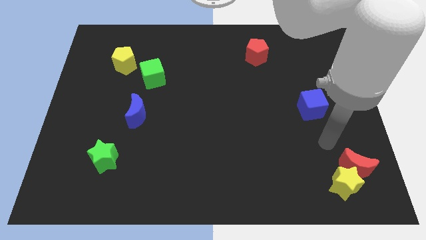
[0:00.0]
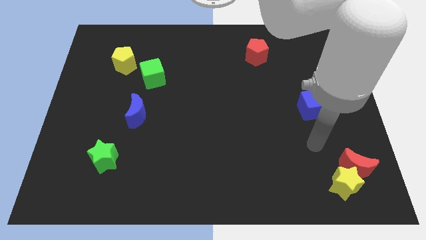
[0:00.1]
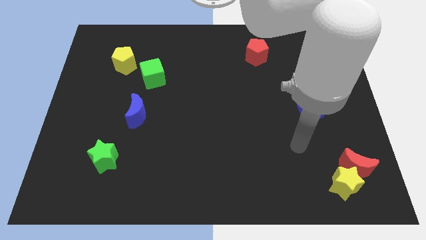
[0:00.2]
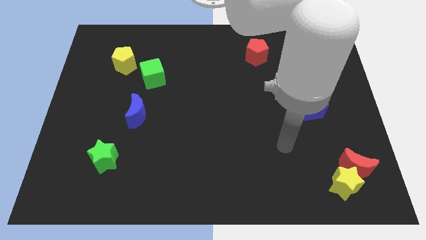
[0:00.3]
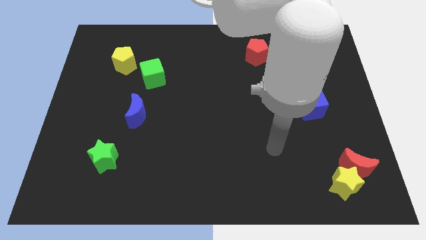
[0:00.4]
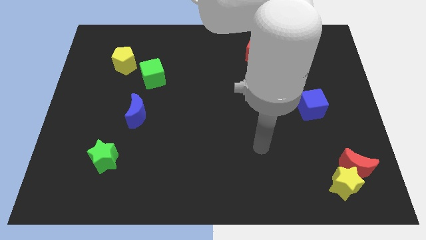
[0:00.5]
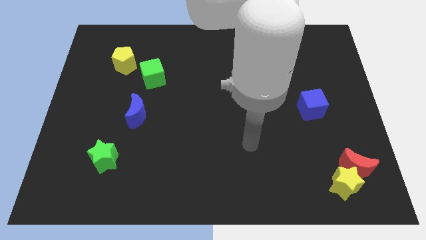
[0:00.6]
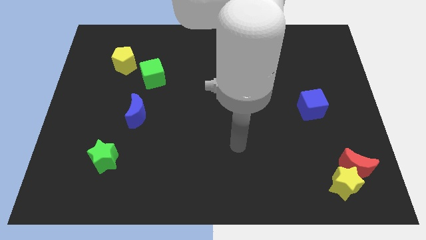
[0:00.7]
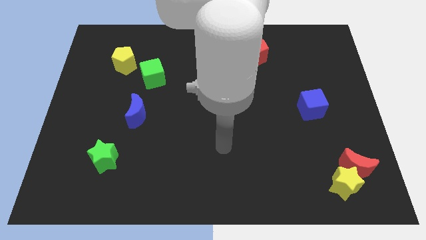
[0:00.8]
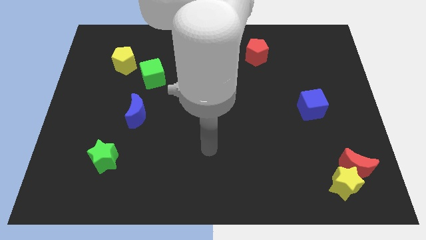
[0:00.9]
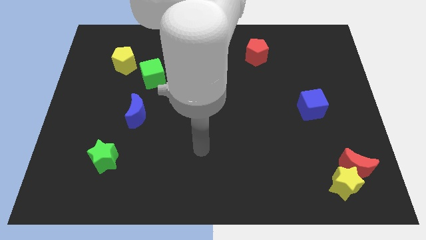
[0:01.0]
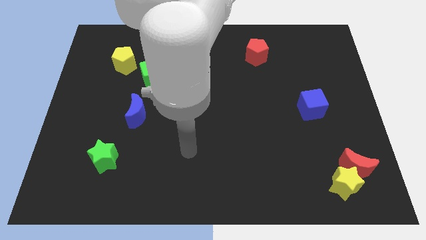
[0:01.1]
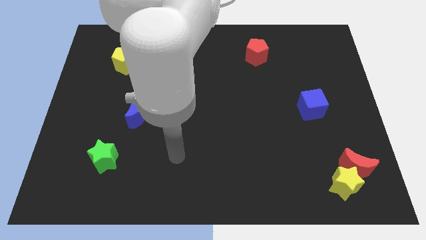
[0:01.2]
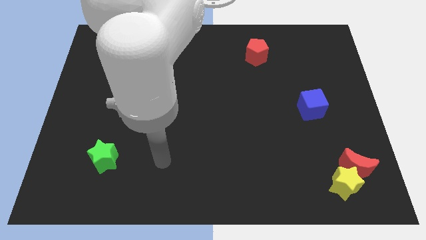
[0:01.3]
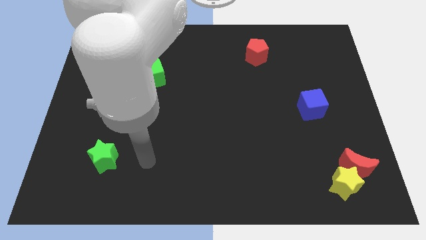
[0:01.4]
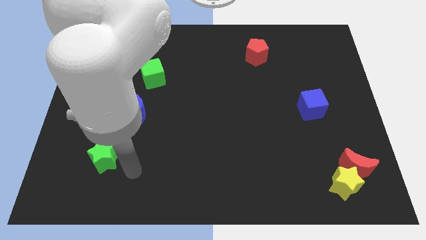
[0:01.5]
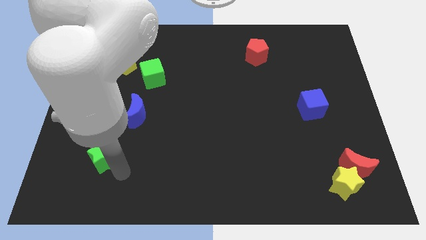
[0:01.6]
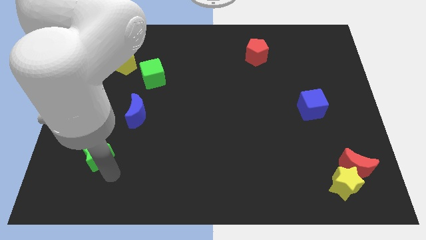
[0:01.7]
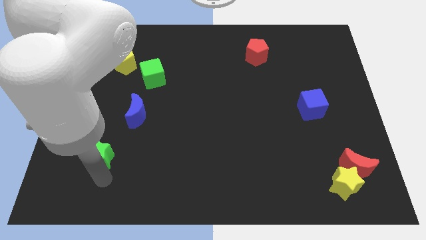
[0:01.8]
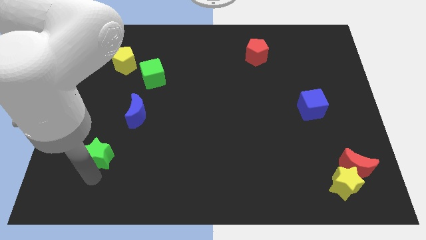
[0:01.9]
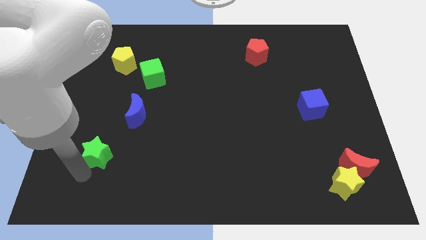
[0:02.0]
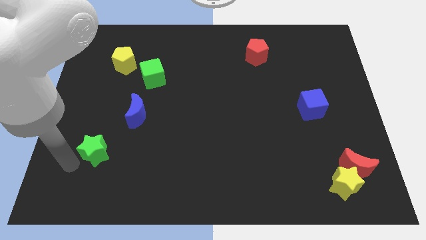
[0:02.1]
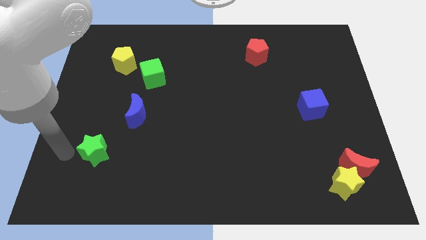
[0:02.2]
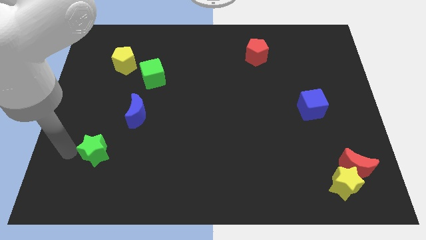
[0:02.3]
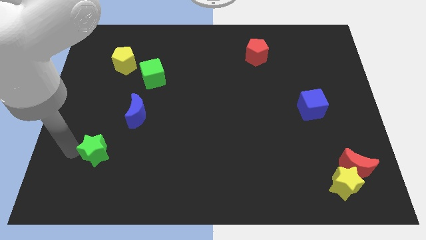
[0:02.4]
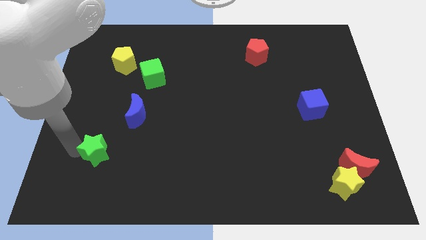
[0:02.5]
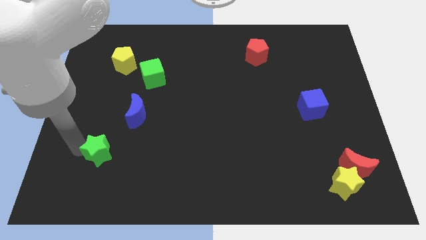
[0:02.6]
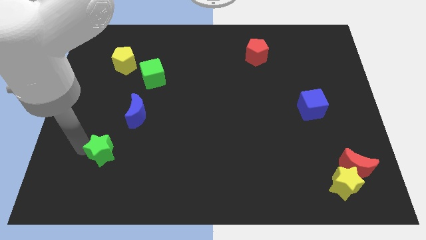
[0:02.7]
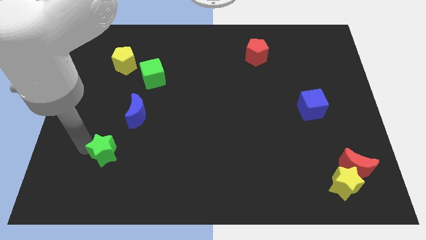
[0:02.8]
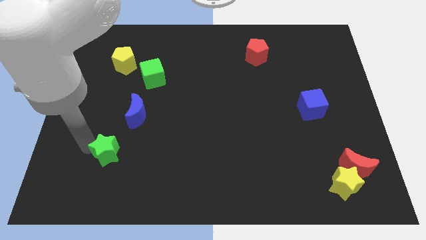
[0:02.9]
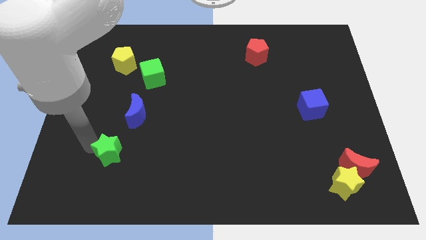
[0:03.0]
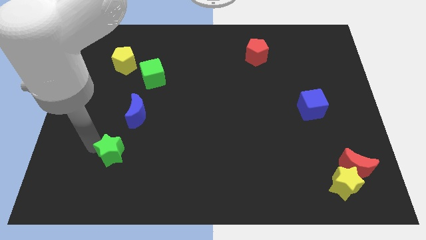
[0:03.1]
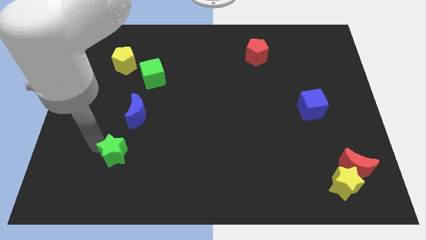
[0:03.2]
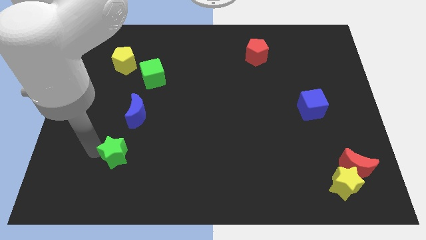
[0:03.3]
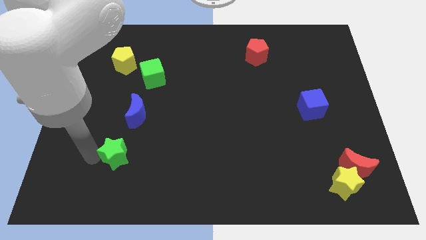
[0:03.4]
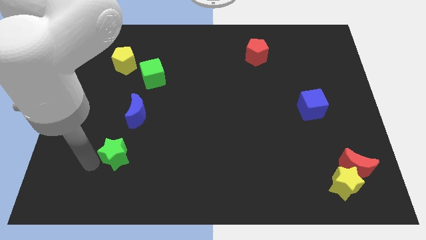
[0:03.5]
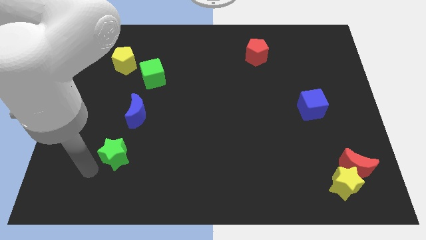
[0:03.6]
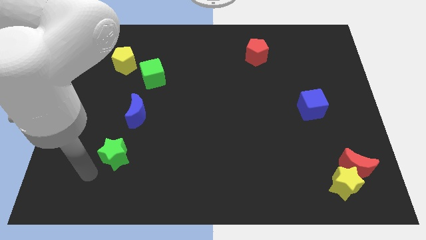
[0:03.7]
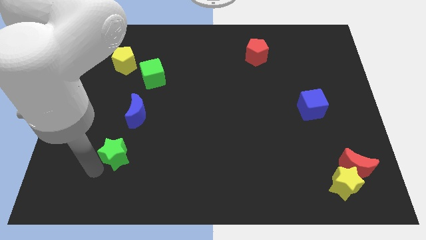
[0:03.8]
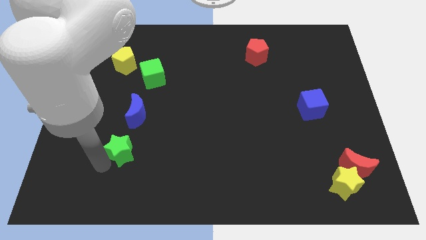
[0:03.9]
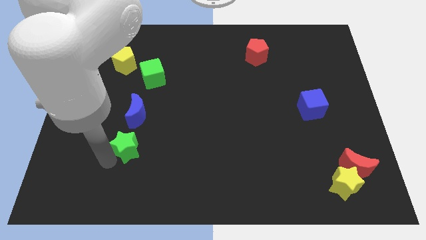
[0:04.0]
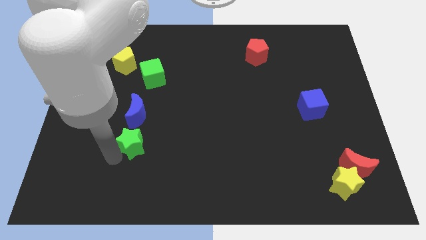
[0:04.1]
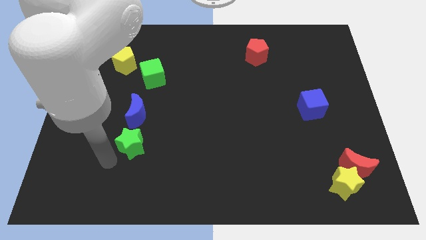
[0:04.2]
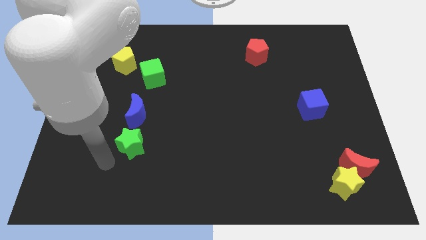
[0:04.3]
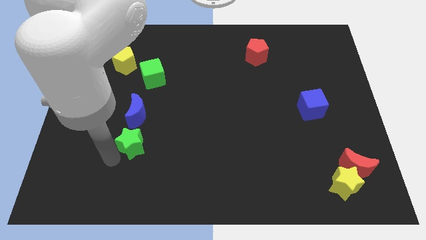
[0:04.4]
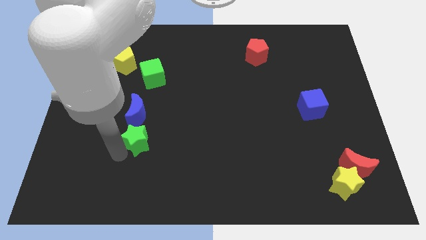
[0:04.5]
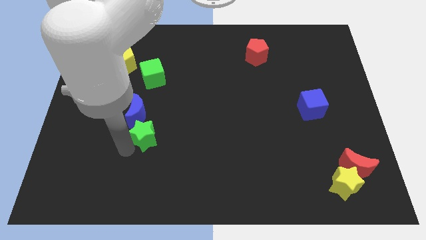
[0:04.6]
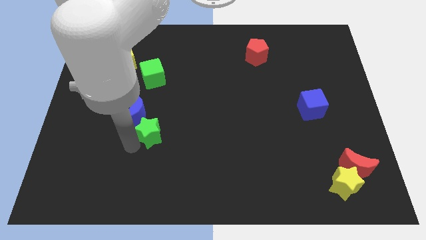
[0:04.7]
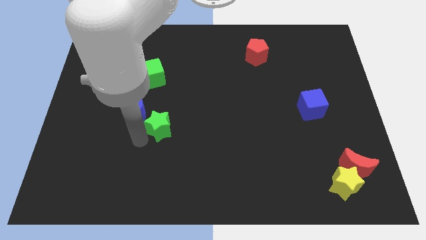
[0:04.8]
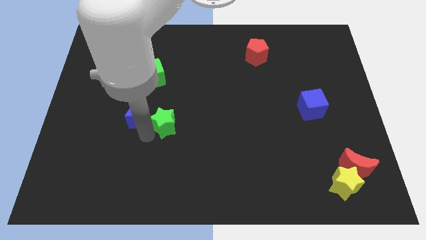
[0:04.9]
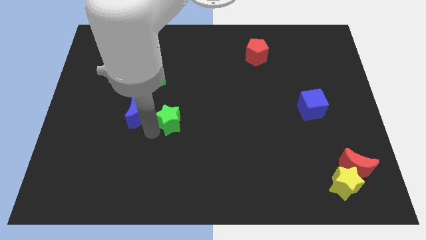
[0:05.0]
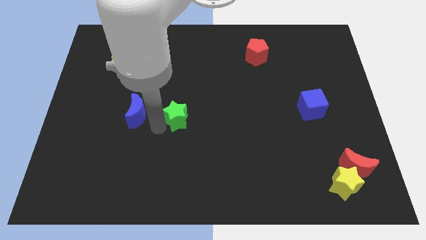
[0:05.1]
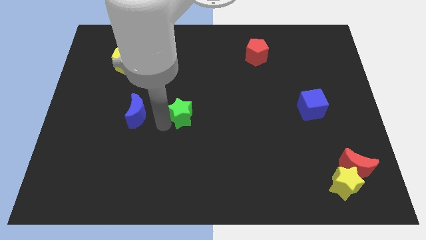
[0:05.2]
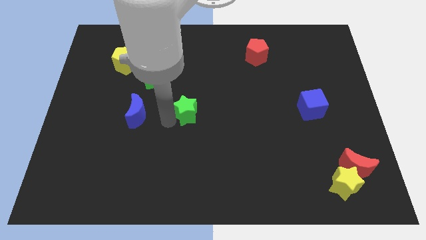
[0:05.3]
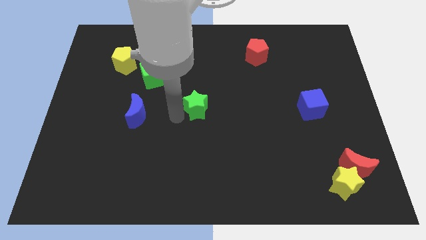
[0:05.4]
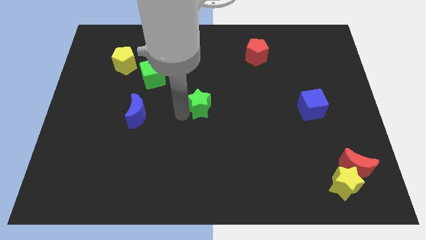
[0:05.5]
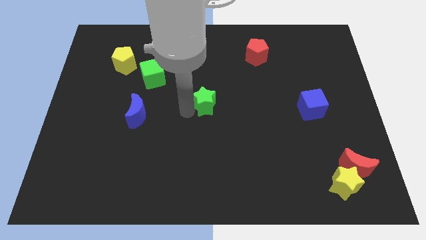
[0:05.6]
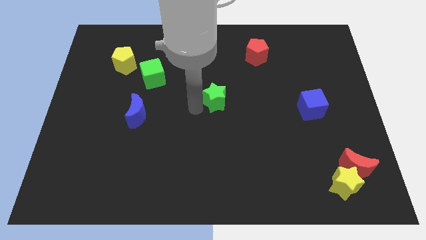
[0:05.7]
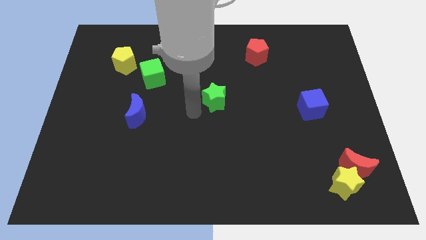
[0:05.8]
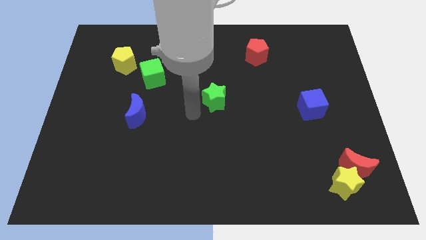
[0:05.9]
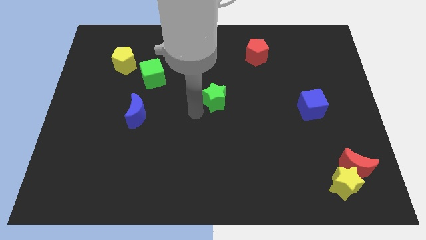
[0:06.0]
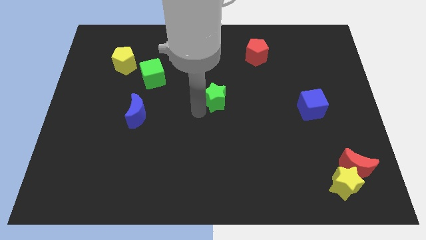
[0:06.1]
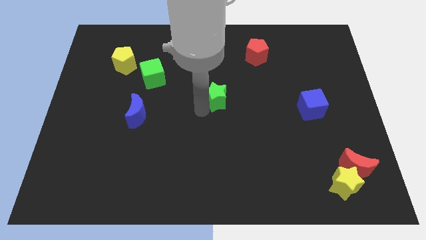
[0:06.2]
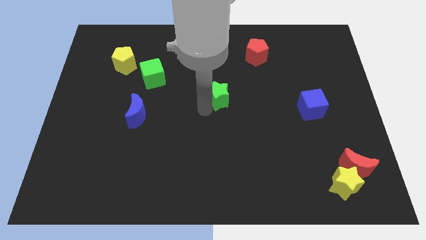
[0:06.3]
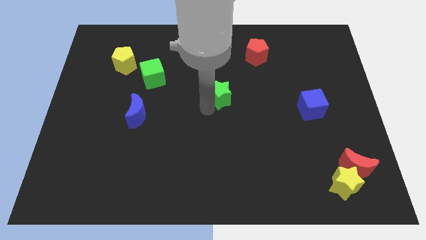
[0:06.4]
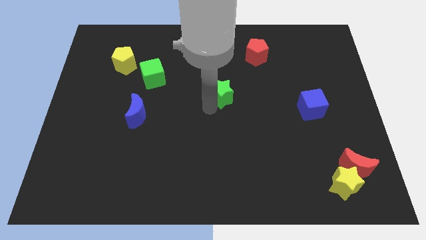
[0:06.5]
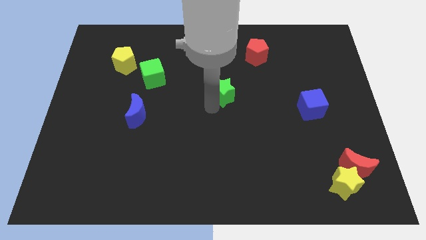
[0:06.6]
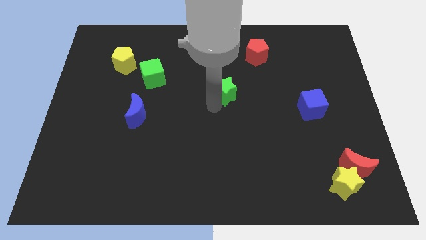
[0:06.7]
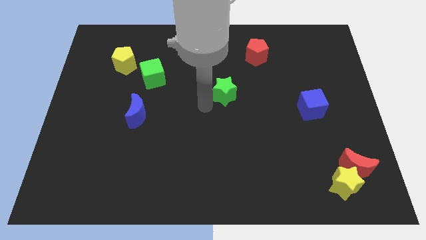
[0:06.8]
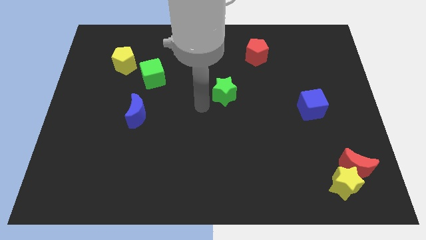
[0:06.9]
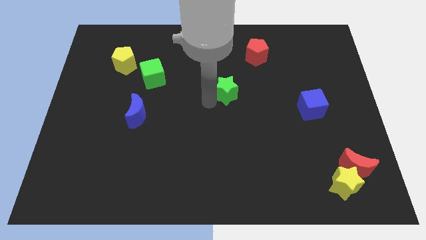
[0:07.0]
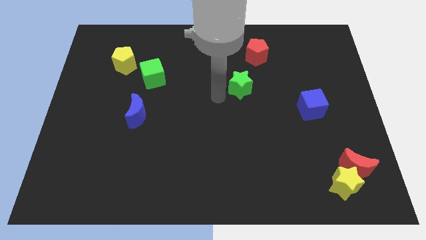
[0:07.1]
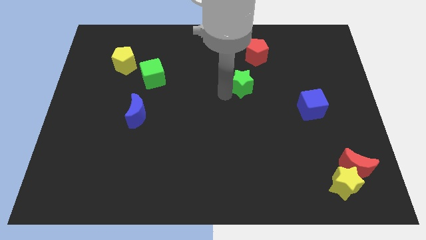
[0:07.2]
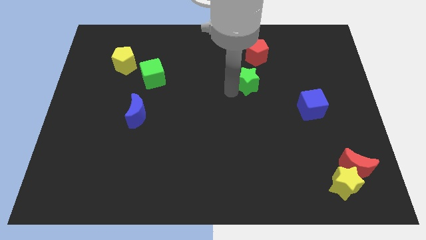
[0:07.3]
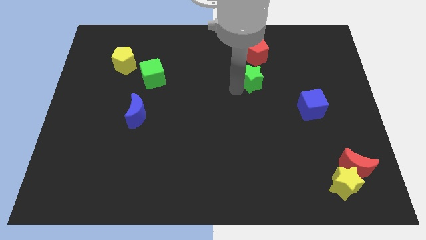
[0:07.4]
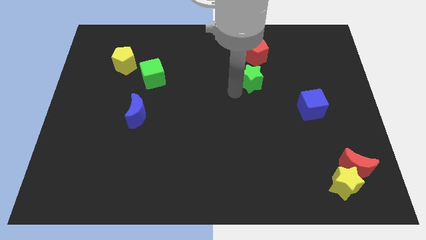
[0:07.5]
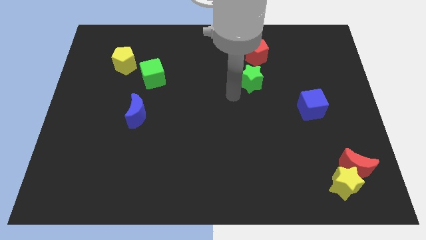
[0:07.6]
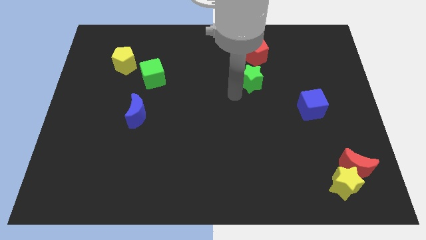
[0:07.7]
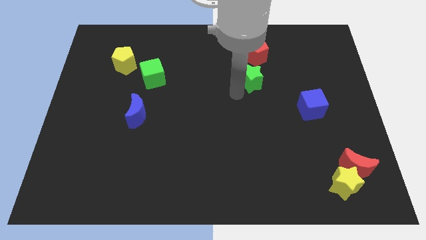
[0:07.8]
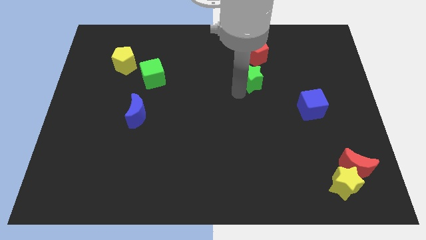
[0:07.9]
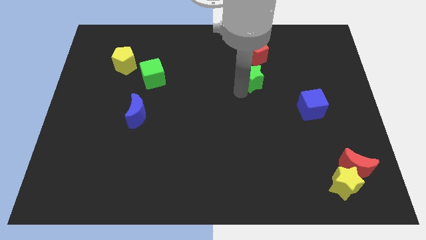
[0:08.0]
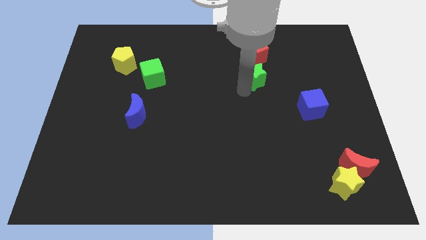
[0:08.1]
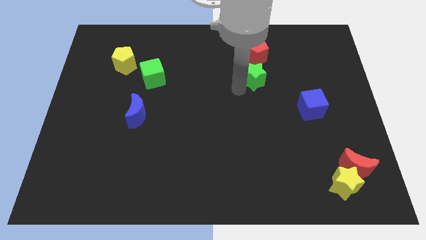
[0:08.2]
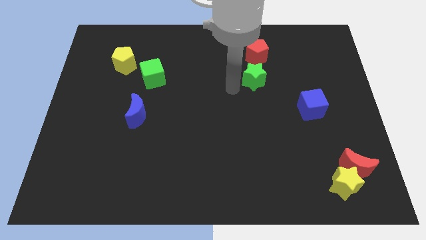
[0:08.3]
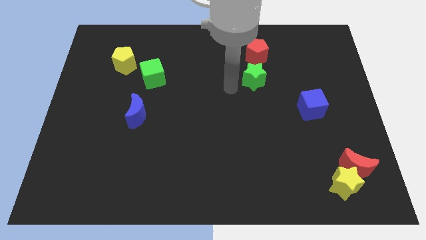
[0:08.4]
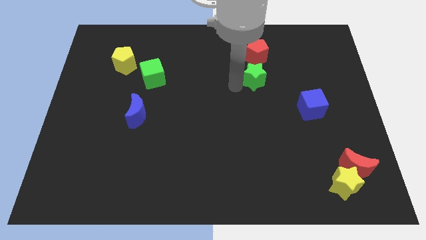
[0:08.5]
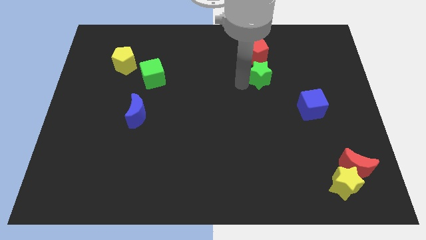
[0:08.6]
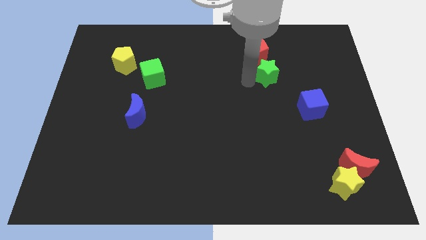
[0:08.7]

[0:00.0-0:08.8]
push the green star to the bottom right side of the red pentagon
